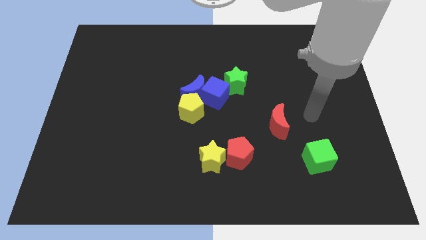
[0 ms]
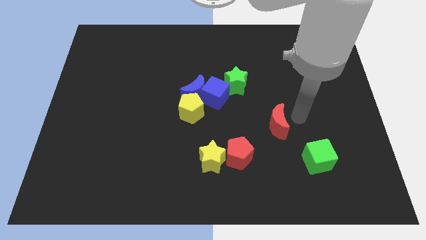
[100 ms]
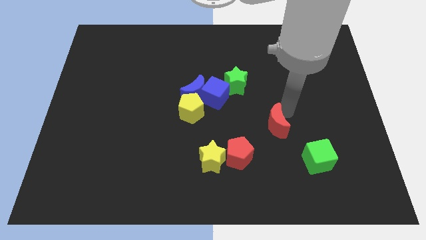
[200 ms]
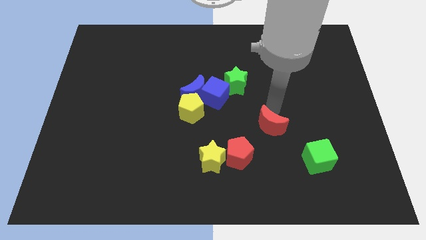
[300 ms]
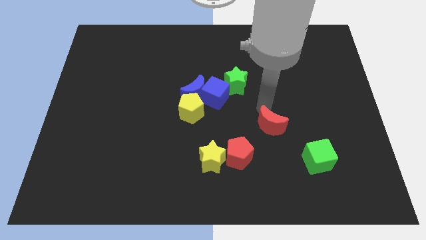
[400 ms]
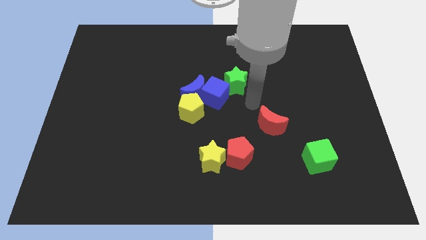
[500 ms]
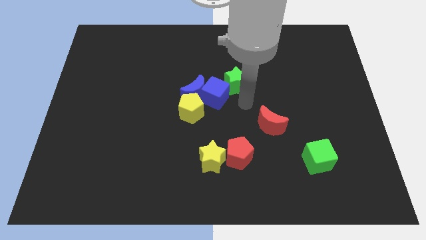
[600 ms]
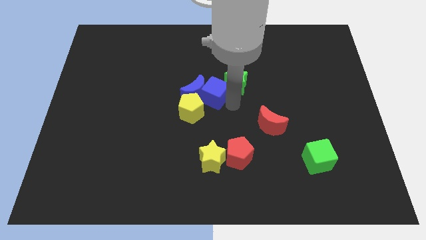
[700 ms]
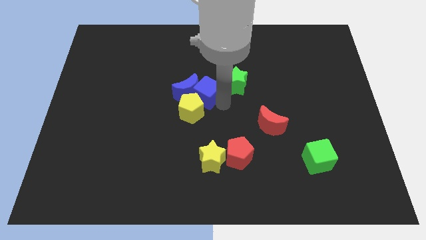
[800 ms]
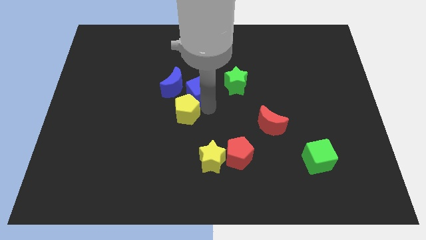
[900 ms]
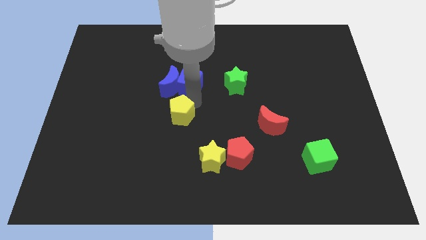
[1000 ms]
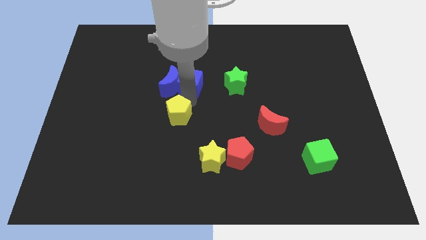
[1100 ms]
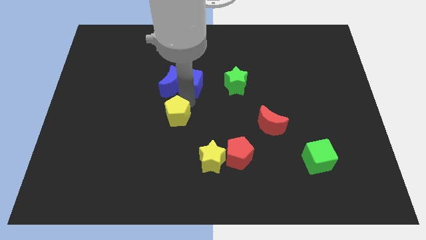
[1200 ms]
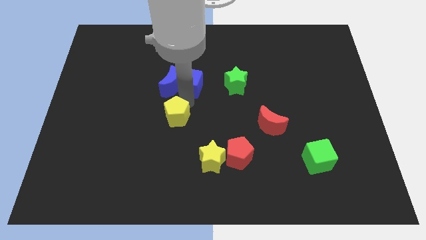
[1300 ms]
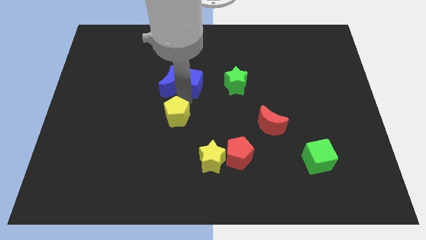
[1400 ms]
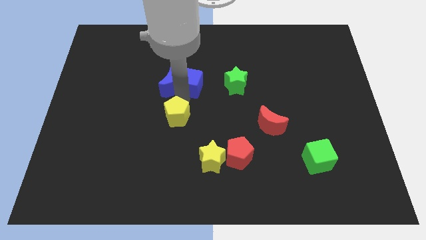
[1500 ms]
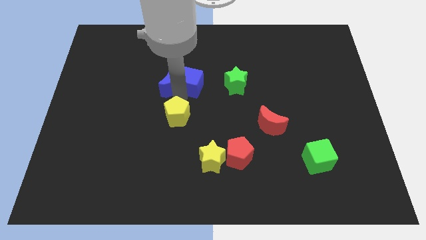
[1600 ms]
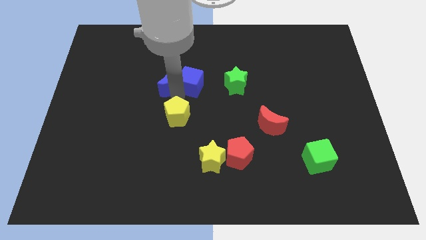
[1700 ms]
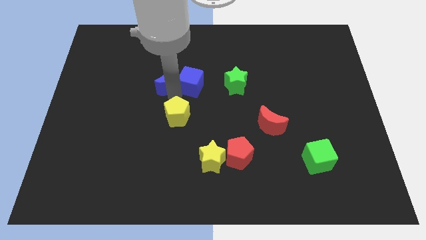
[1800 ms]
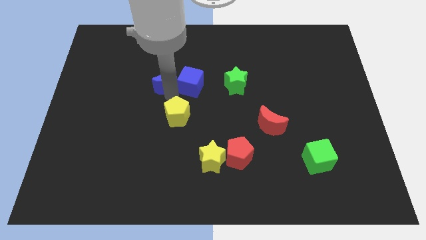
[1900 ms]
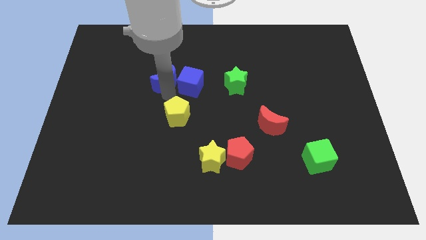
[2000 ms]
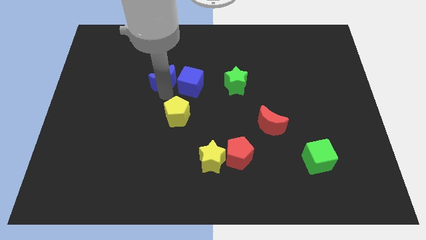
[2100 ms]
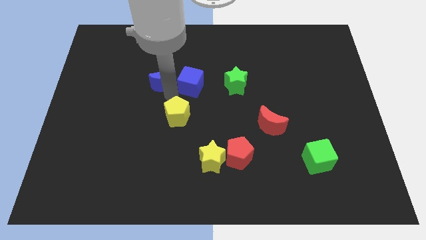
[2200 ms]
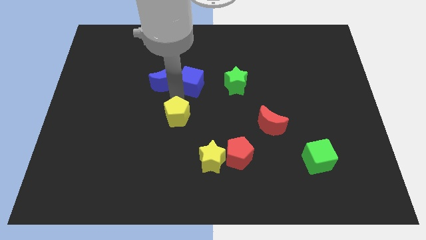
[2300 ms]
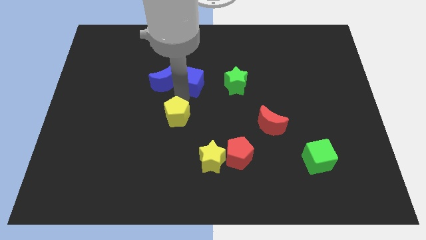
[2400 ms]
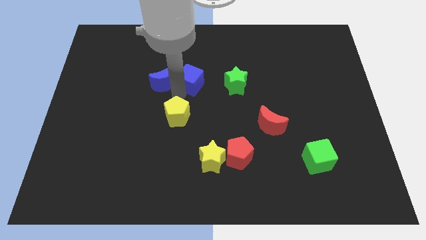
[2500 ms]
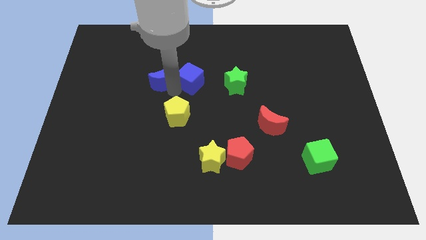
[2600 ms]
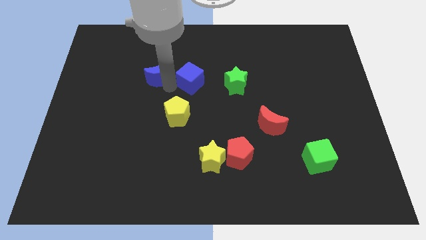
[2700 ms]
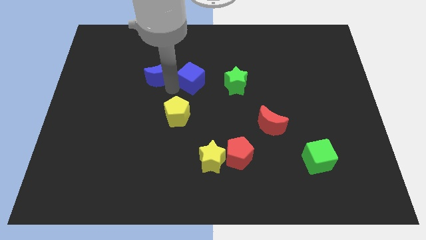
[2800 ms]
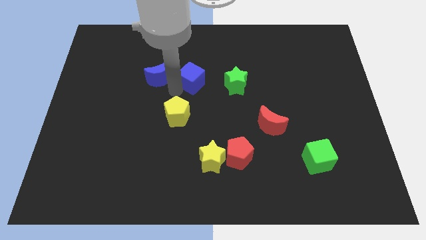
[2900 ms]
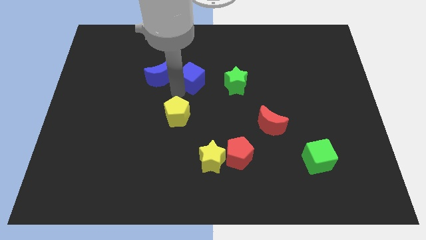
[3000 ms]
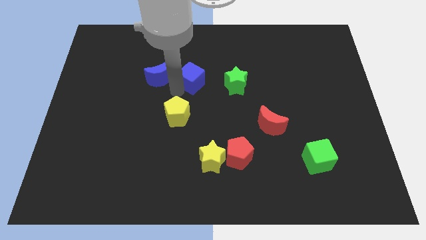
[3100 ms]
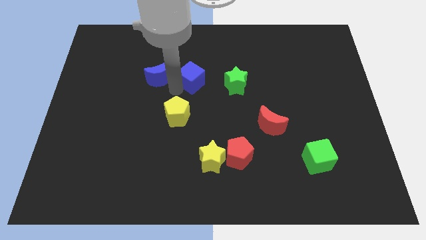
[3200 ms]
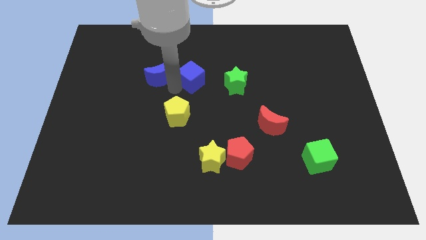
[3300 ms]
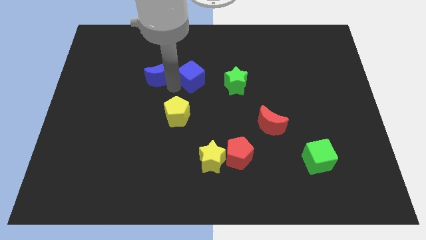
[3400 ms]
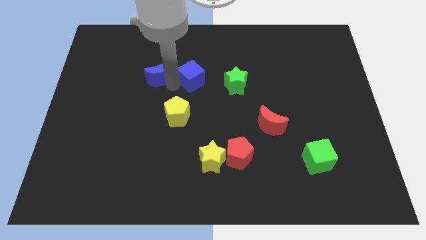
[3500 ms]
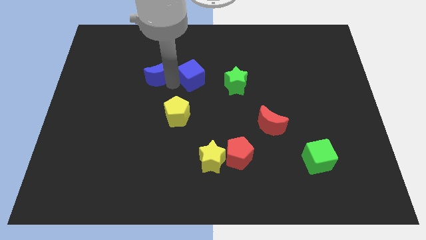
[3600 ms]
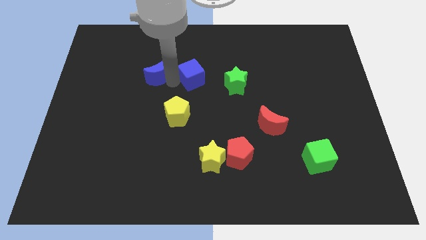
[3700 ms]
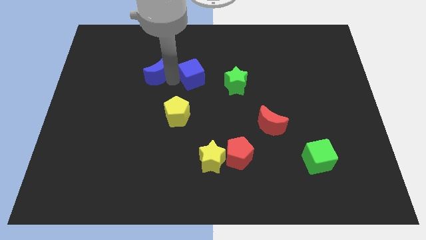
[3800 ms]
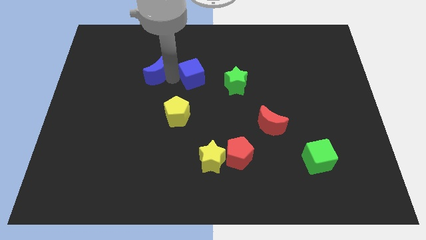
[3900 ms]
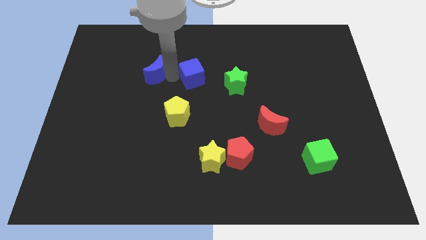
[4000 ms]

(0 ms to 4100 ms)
separate the blue moon from the blue cube and yellow pentagon

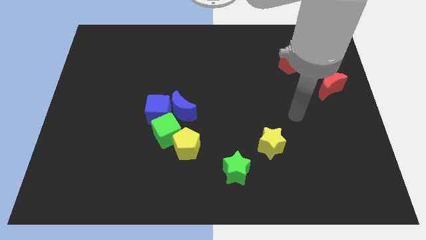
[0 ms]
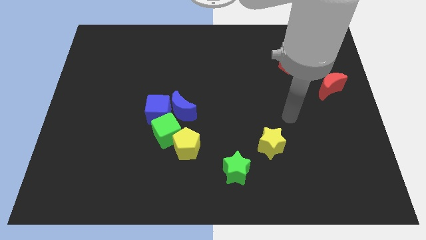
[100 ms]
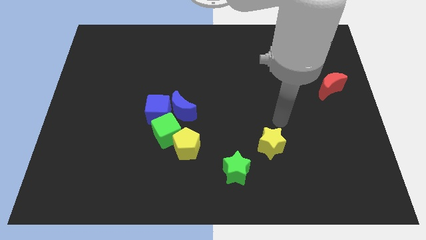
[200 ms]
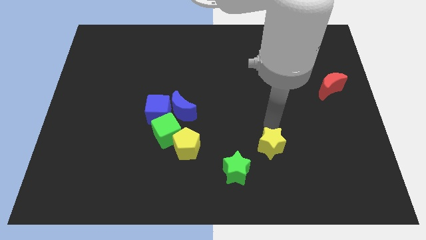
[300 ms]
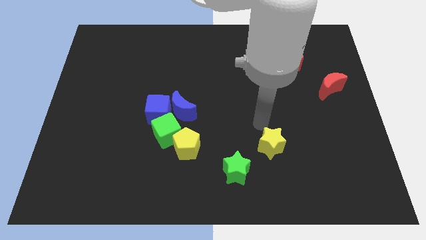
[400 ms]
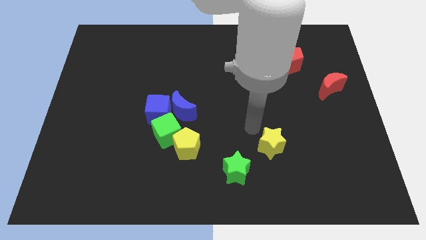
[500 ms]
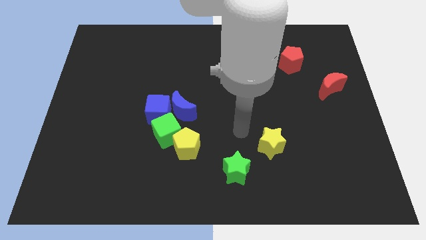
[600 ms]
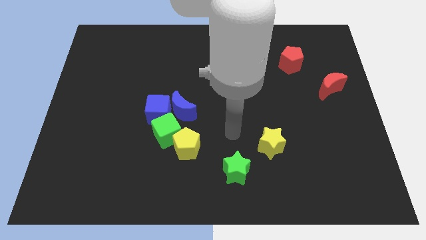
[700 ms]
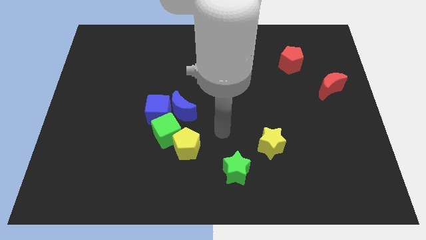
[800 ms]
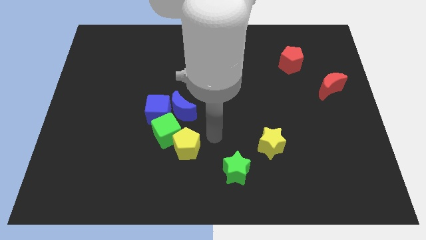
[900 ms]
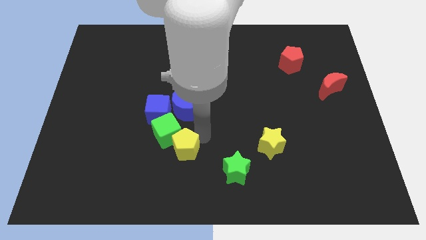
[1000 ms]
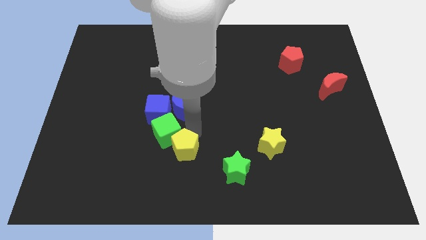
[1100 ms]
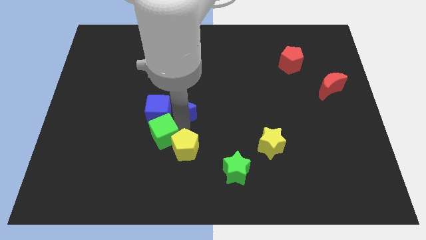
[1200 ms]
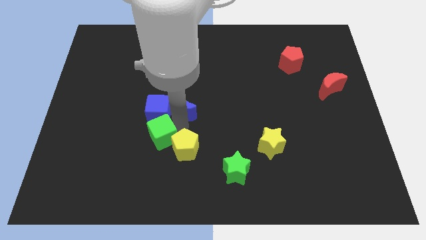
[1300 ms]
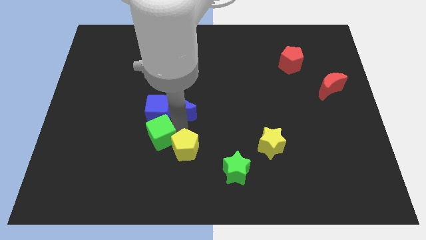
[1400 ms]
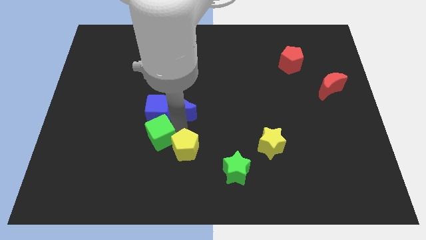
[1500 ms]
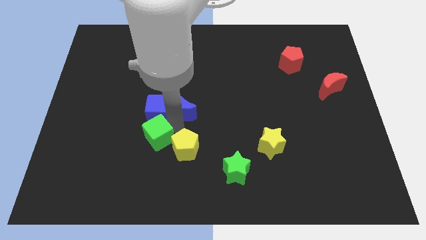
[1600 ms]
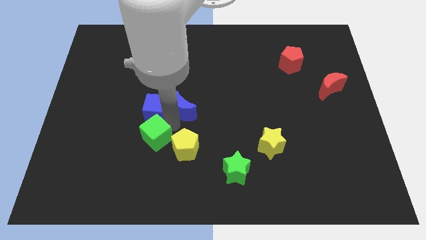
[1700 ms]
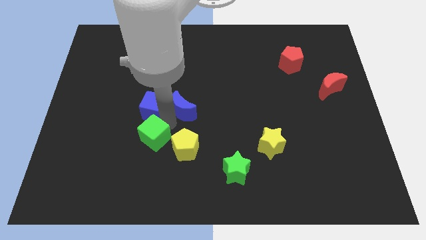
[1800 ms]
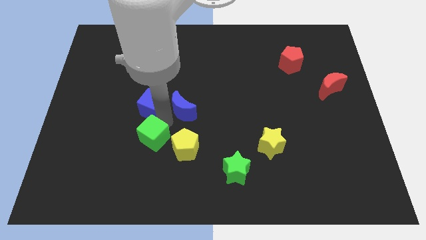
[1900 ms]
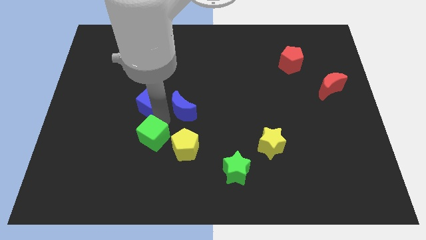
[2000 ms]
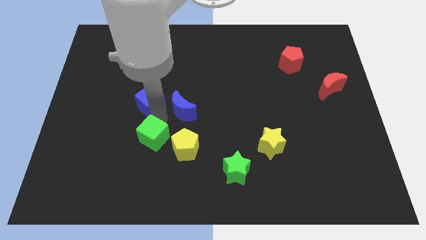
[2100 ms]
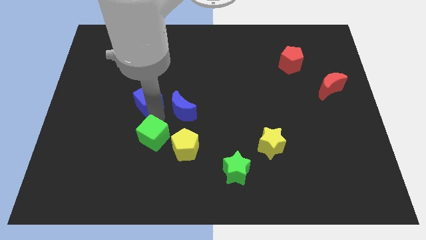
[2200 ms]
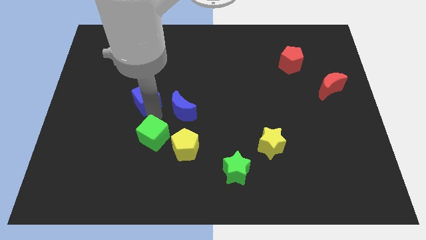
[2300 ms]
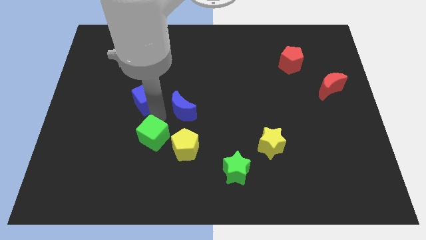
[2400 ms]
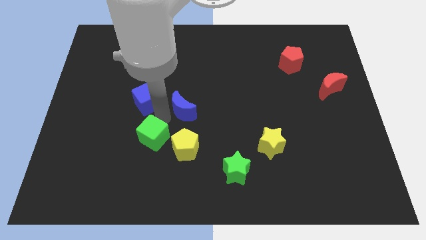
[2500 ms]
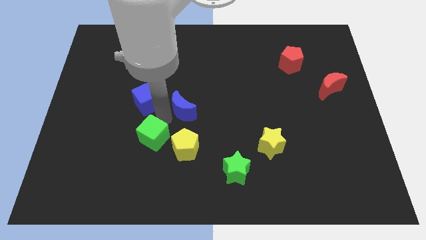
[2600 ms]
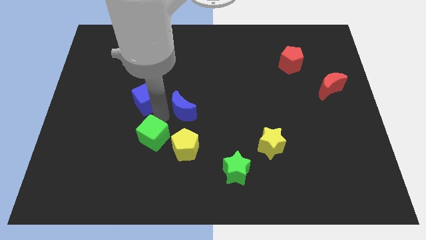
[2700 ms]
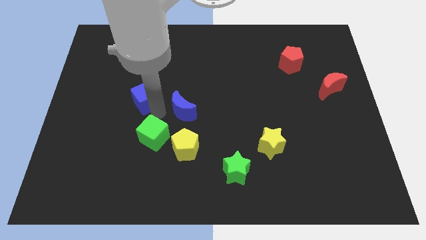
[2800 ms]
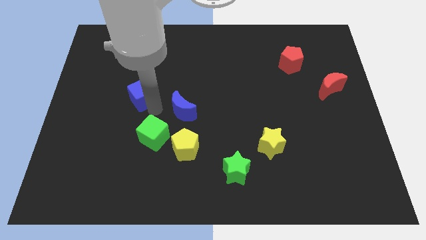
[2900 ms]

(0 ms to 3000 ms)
move the blue cube away from the blue moon and green cube

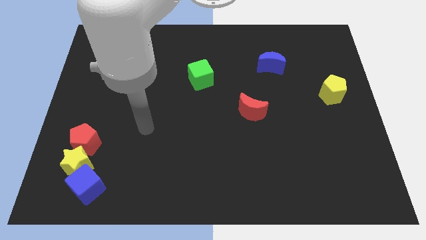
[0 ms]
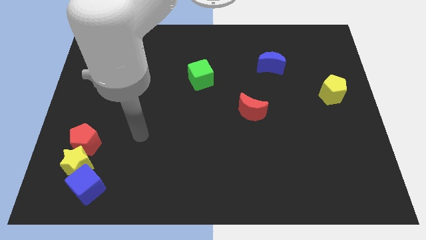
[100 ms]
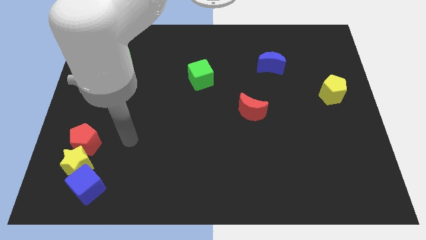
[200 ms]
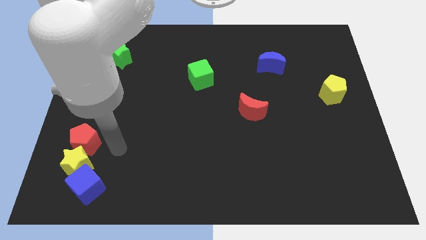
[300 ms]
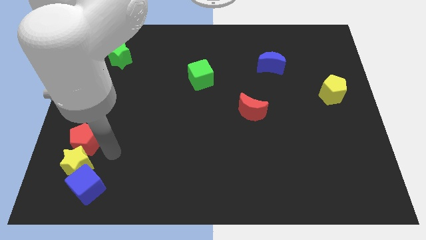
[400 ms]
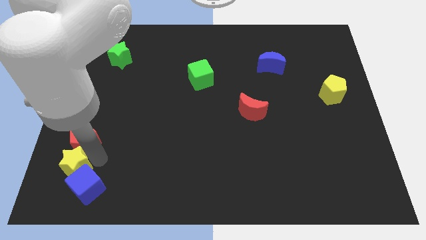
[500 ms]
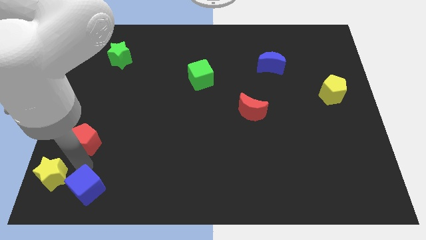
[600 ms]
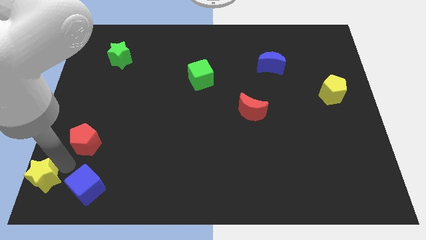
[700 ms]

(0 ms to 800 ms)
pull the red pentagon apart from the yellow star

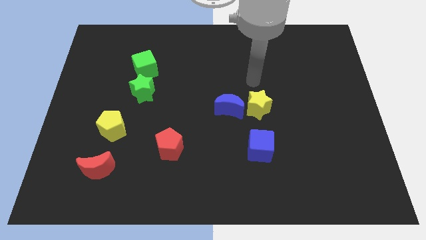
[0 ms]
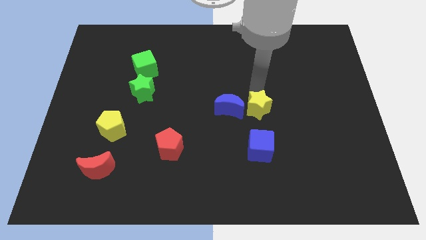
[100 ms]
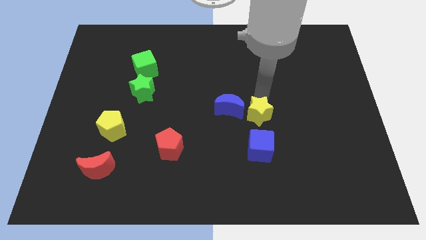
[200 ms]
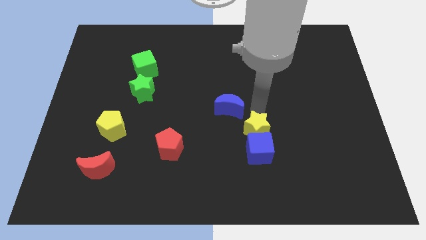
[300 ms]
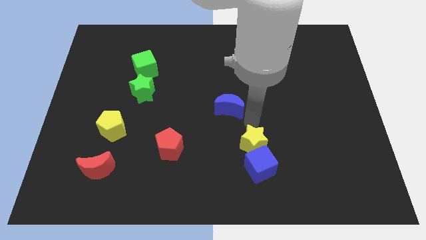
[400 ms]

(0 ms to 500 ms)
move the blue moon away from the yellow star

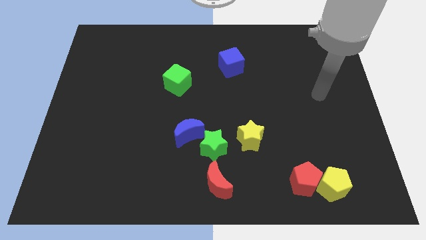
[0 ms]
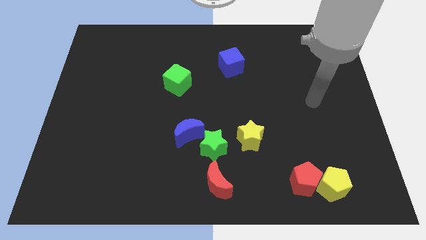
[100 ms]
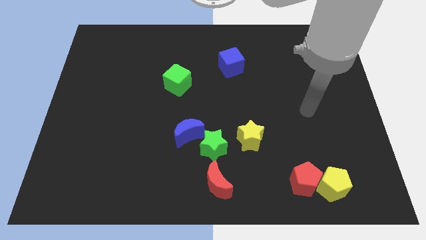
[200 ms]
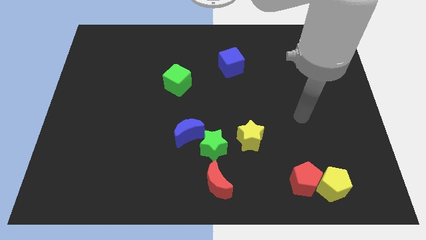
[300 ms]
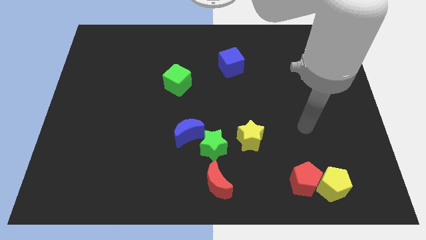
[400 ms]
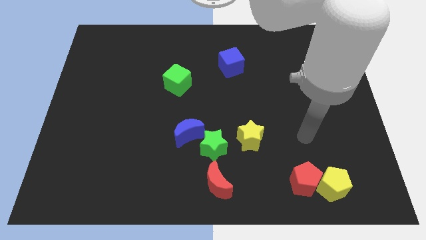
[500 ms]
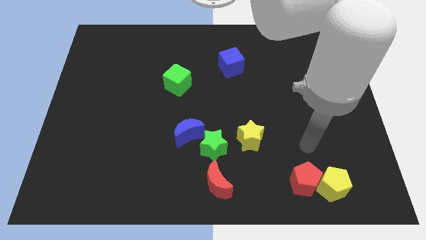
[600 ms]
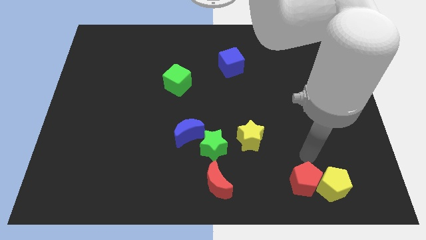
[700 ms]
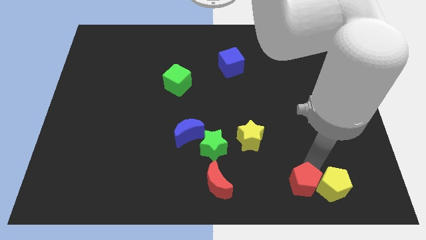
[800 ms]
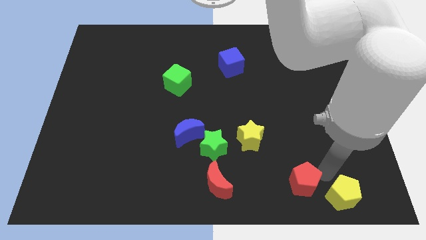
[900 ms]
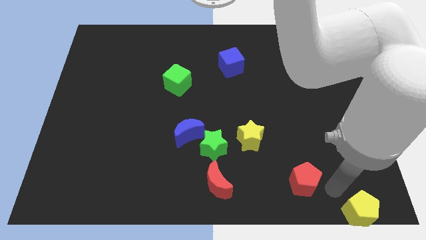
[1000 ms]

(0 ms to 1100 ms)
move the red pentagon away from the yellow pentagon
